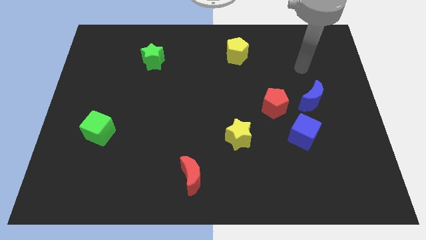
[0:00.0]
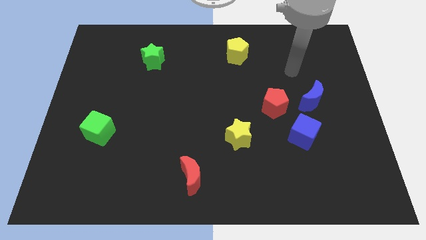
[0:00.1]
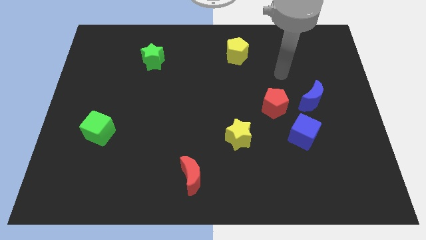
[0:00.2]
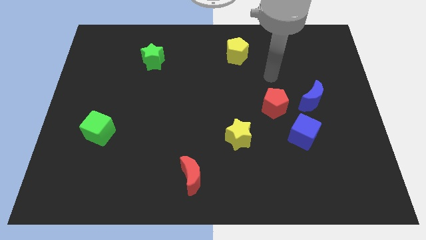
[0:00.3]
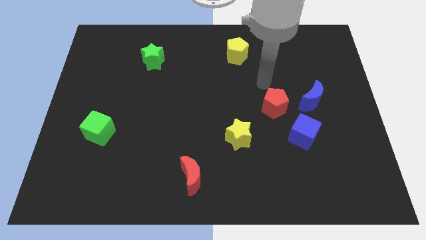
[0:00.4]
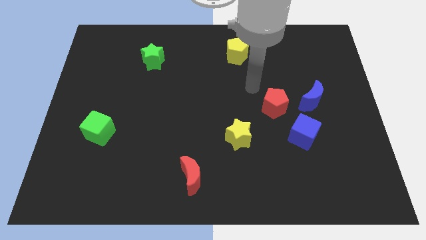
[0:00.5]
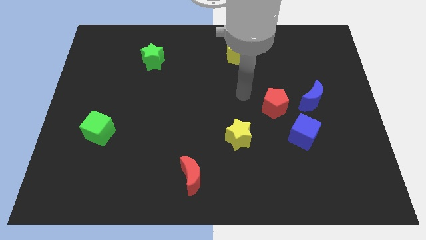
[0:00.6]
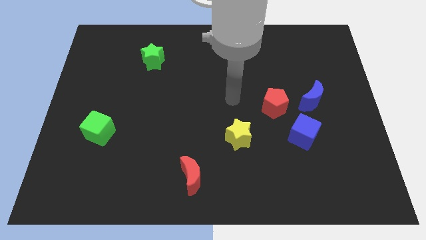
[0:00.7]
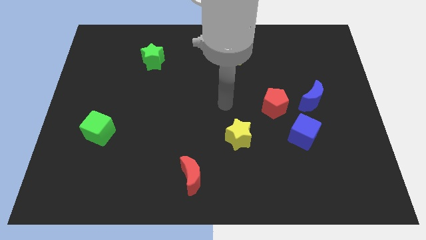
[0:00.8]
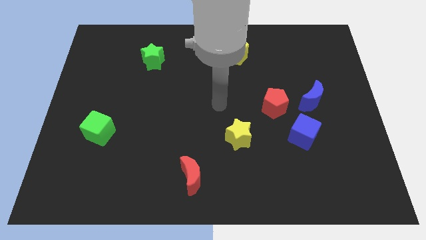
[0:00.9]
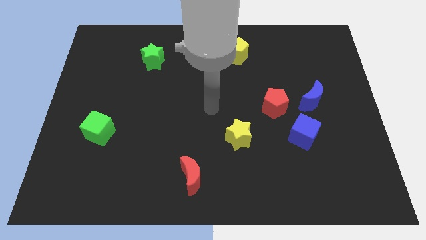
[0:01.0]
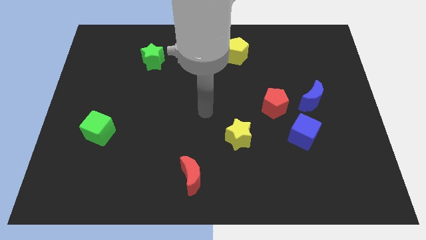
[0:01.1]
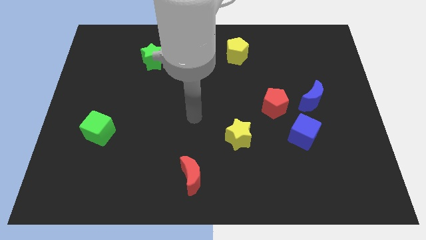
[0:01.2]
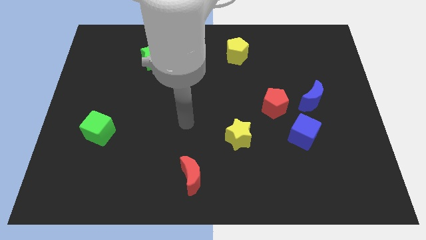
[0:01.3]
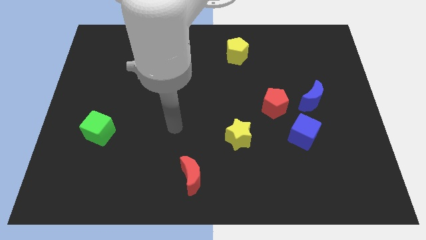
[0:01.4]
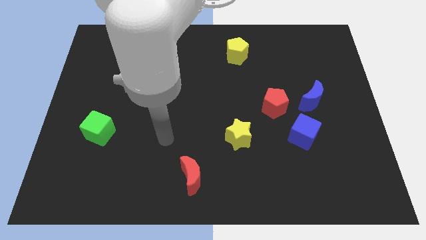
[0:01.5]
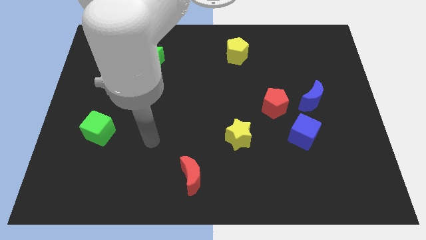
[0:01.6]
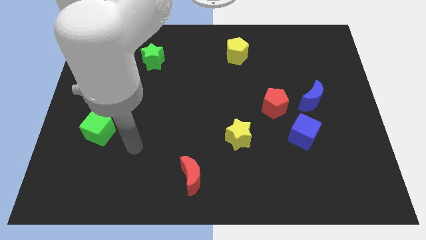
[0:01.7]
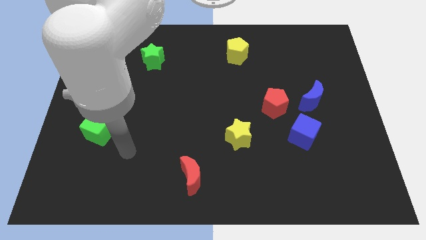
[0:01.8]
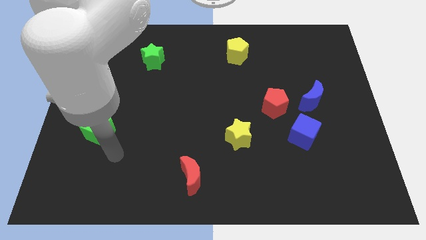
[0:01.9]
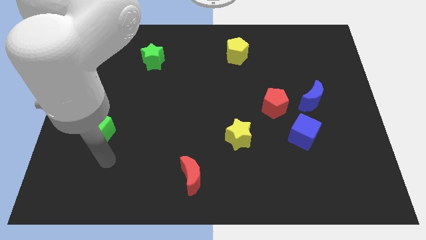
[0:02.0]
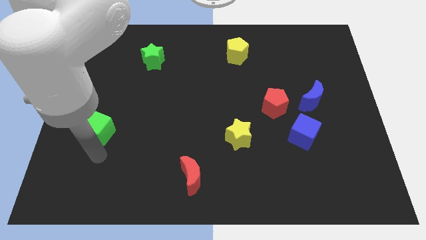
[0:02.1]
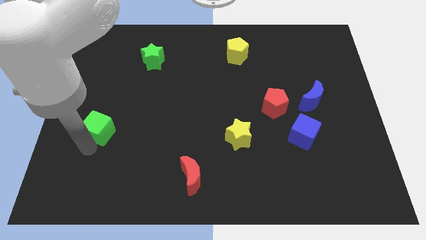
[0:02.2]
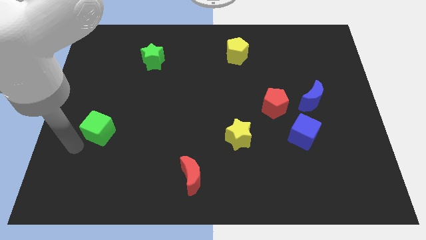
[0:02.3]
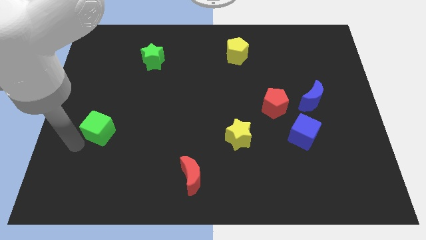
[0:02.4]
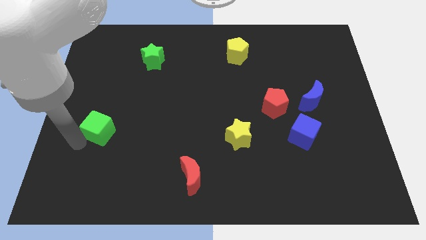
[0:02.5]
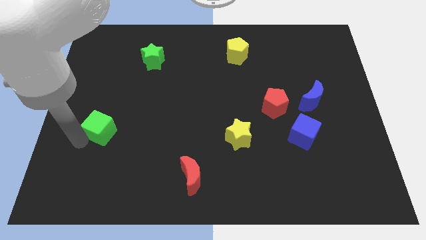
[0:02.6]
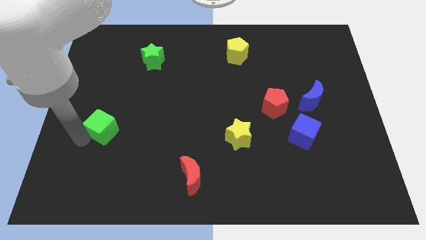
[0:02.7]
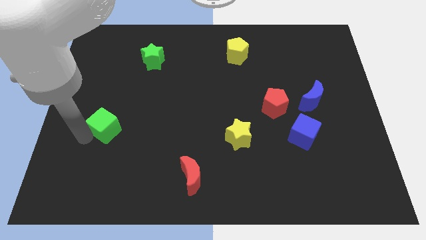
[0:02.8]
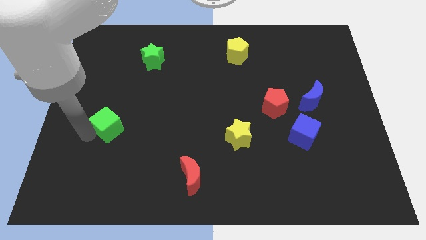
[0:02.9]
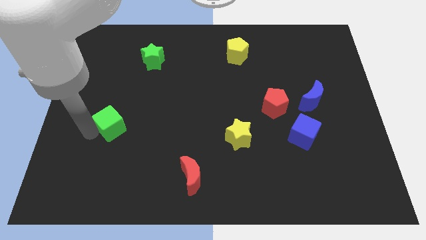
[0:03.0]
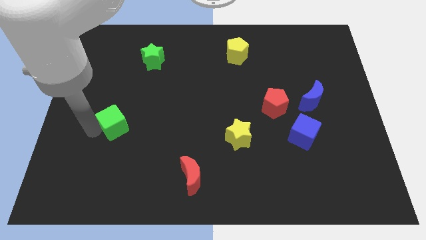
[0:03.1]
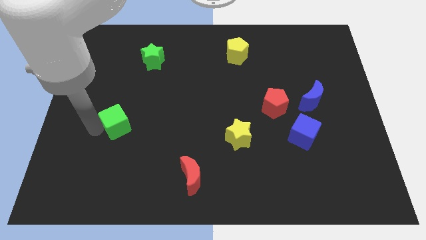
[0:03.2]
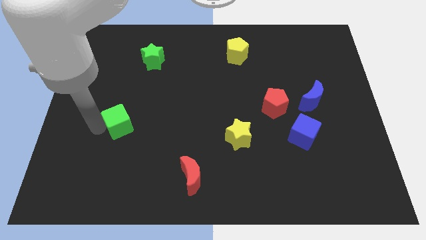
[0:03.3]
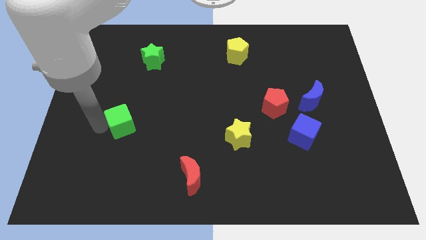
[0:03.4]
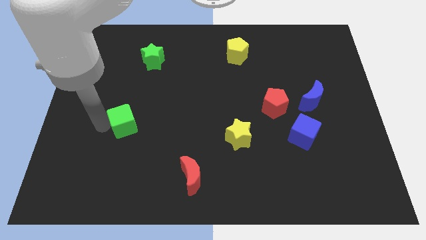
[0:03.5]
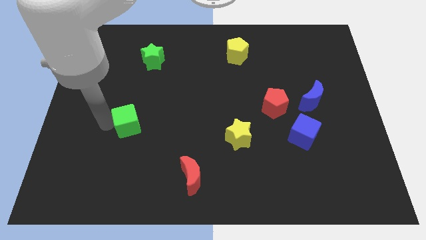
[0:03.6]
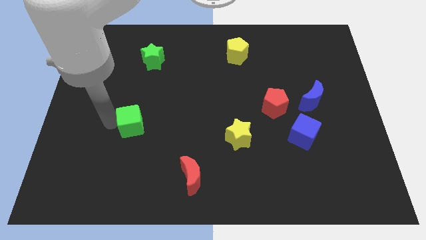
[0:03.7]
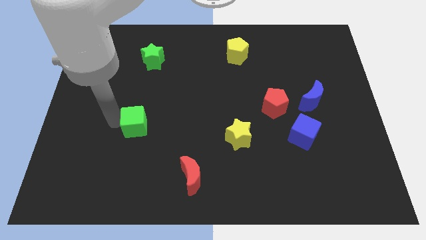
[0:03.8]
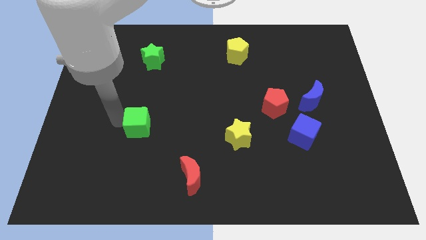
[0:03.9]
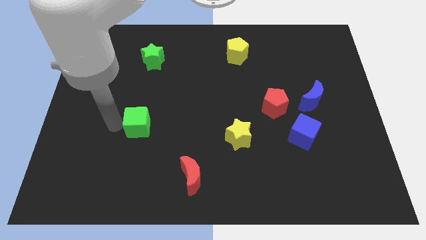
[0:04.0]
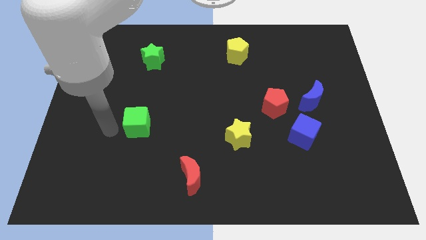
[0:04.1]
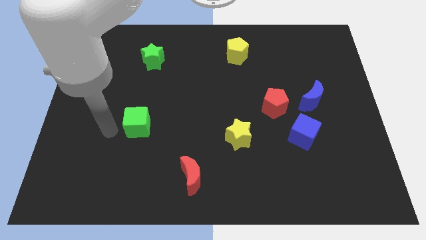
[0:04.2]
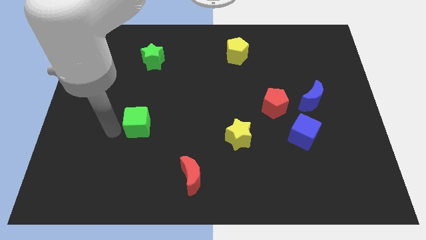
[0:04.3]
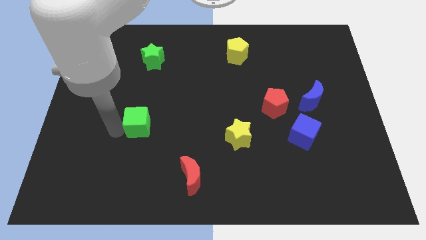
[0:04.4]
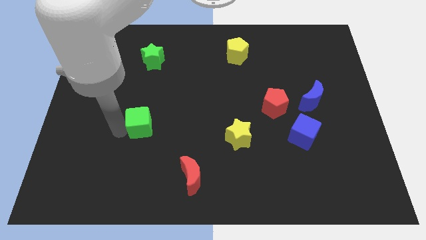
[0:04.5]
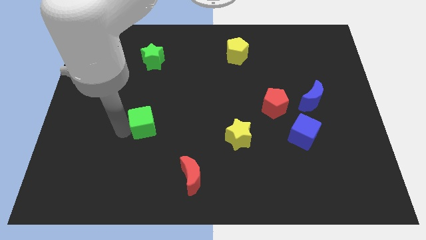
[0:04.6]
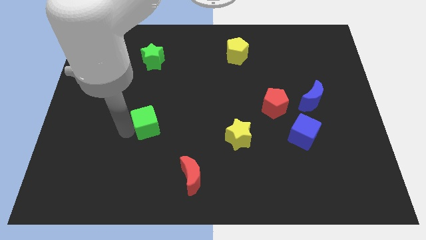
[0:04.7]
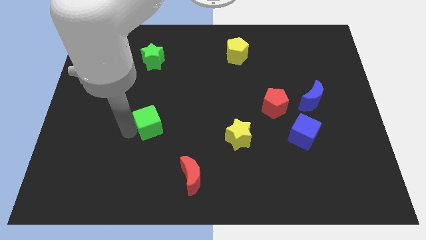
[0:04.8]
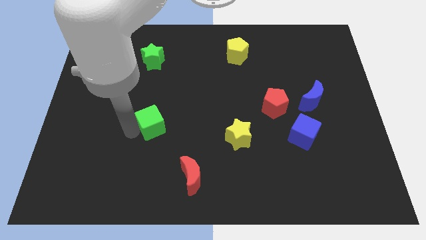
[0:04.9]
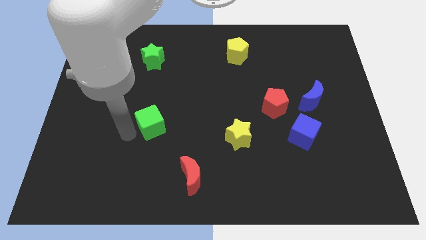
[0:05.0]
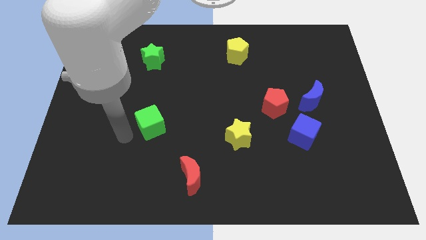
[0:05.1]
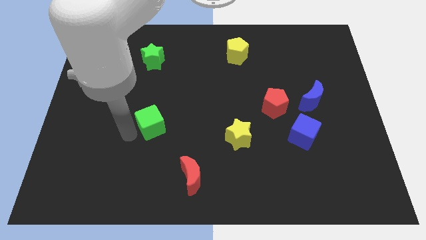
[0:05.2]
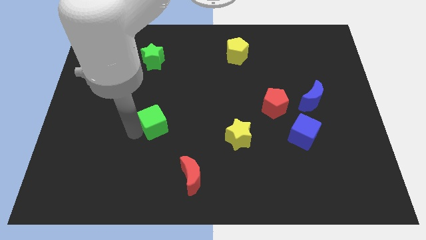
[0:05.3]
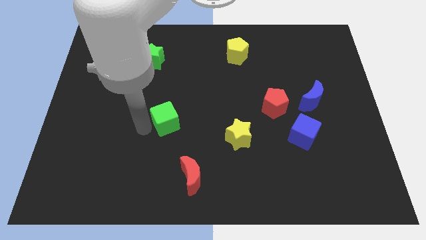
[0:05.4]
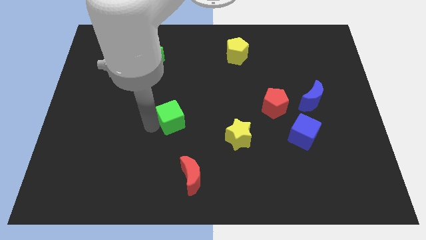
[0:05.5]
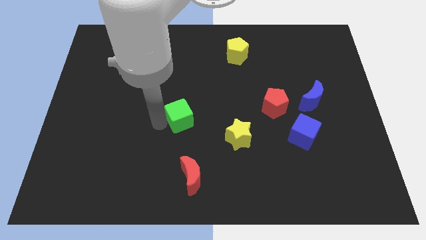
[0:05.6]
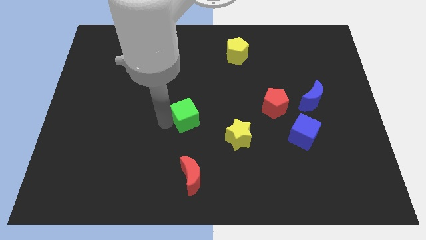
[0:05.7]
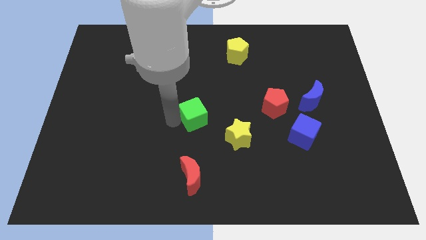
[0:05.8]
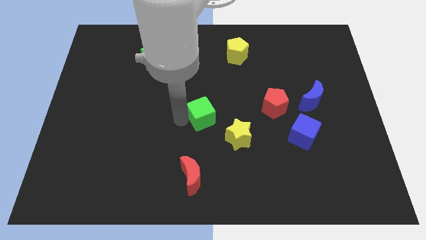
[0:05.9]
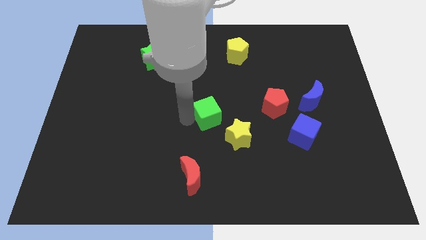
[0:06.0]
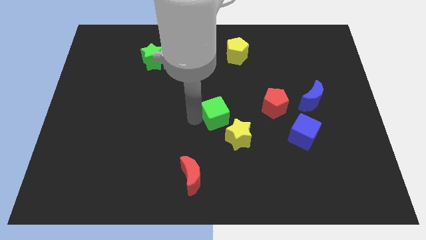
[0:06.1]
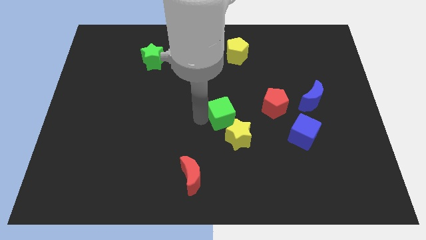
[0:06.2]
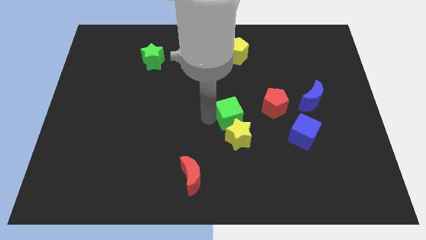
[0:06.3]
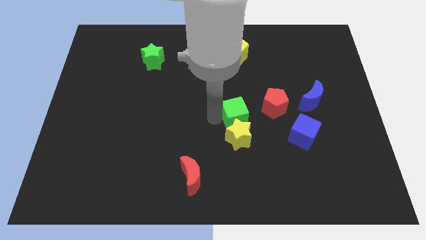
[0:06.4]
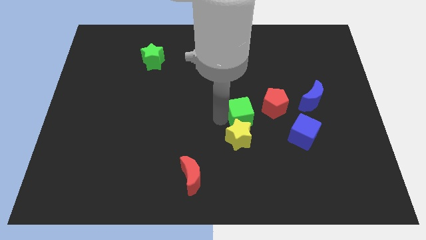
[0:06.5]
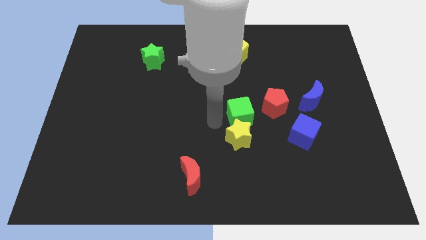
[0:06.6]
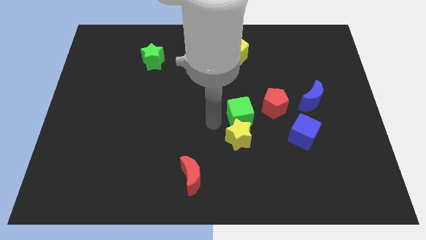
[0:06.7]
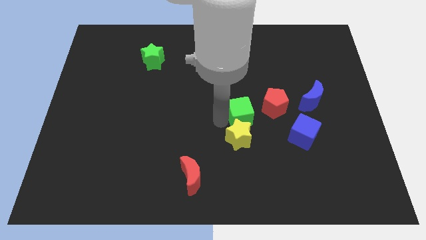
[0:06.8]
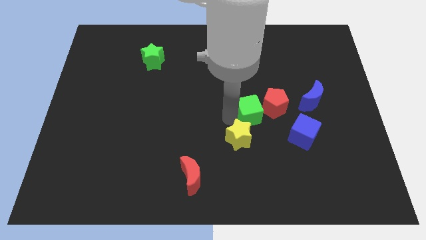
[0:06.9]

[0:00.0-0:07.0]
slide the green cube towards the red pentagon

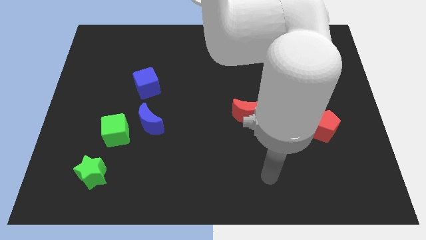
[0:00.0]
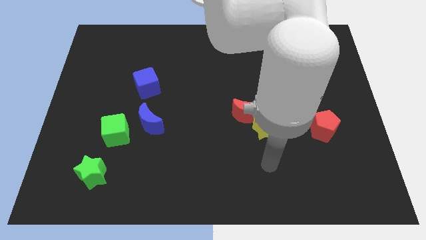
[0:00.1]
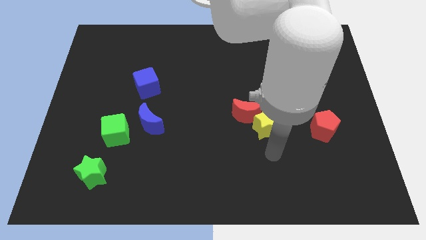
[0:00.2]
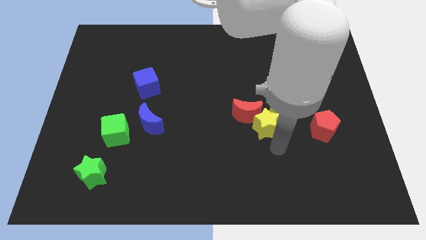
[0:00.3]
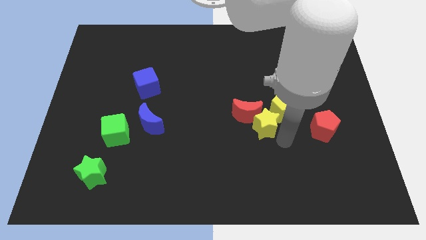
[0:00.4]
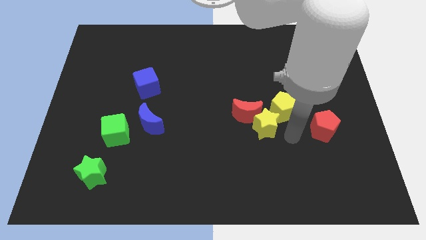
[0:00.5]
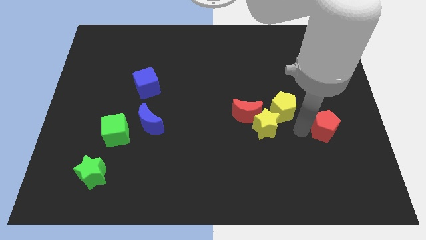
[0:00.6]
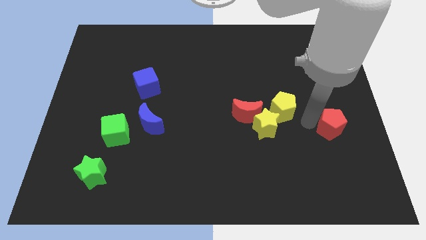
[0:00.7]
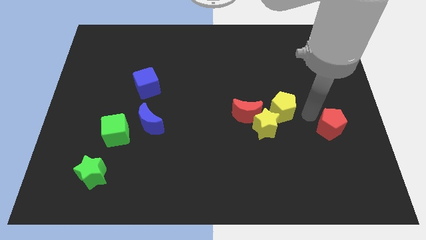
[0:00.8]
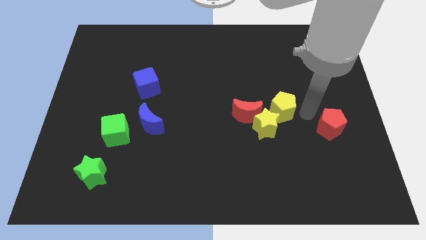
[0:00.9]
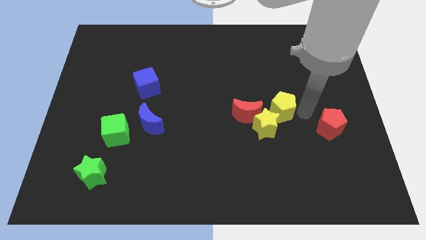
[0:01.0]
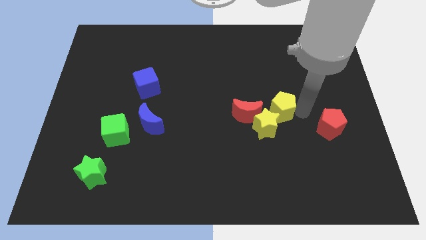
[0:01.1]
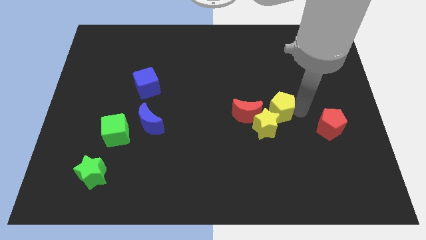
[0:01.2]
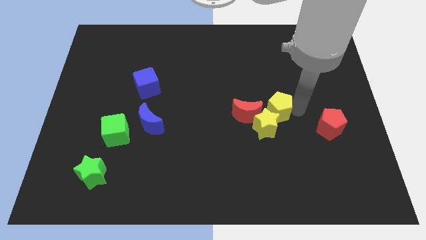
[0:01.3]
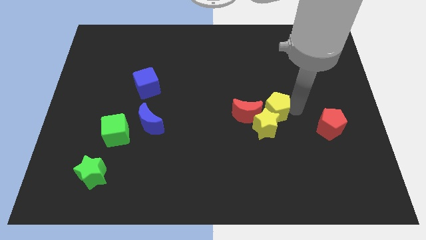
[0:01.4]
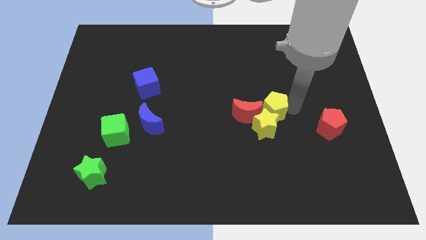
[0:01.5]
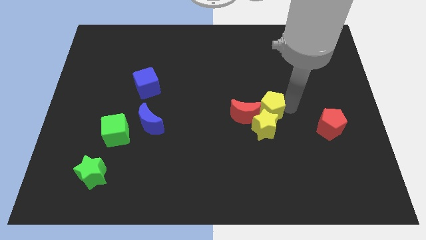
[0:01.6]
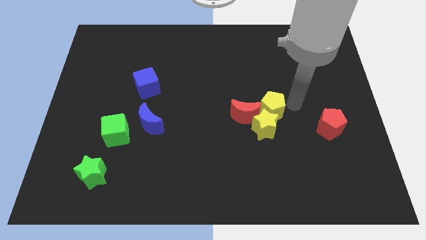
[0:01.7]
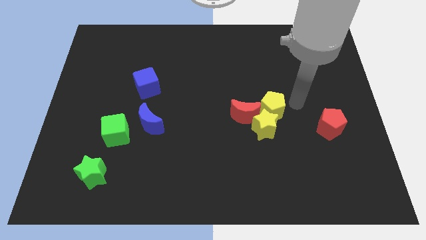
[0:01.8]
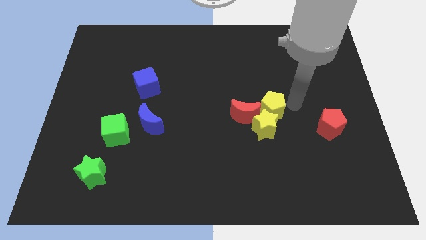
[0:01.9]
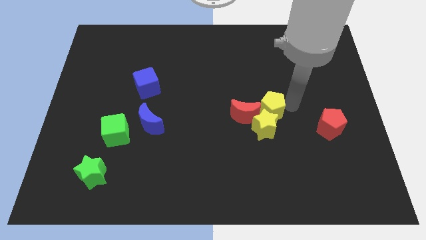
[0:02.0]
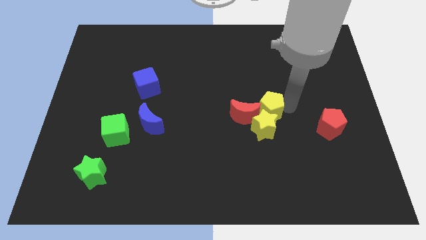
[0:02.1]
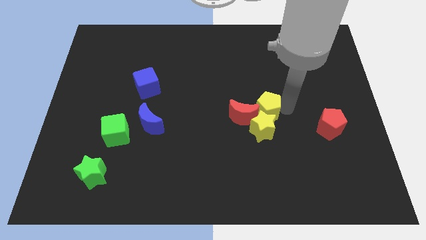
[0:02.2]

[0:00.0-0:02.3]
push the yellow pentagon next to the red moon
